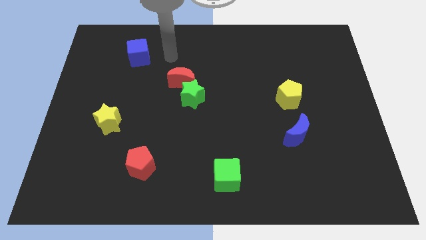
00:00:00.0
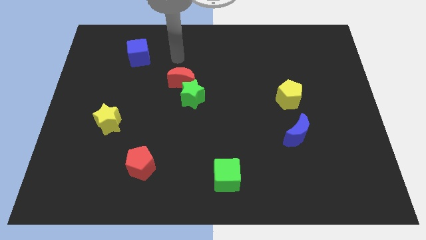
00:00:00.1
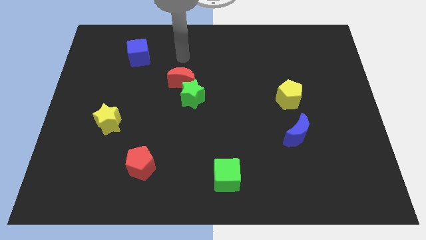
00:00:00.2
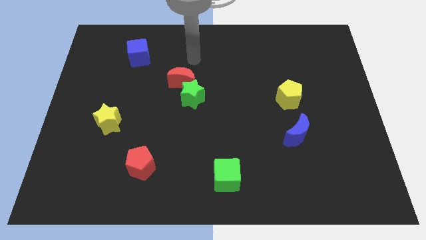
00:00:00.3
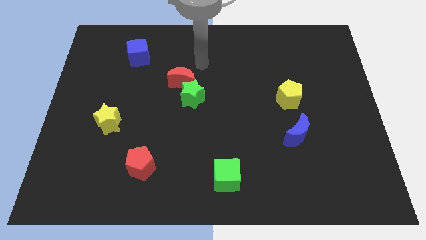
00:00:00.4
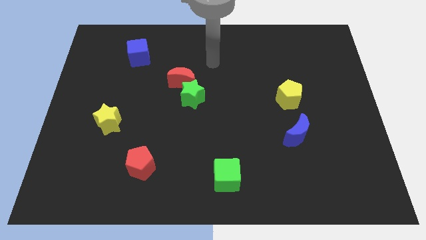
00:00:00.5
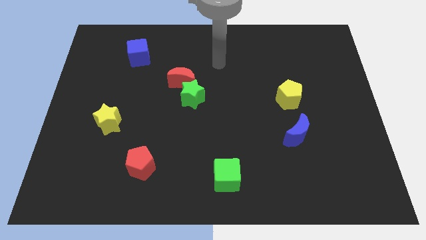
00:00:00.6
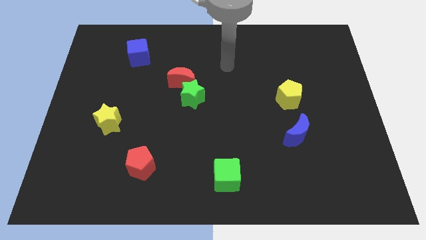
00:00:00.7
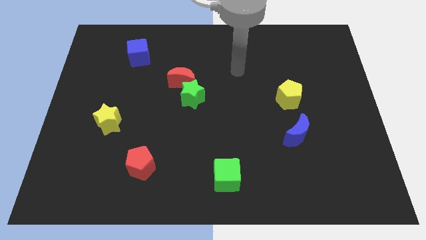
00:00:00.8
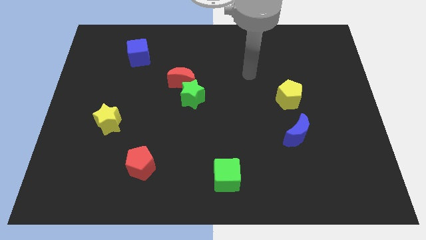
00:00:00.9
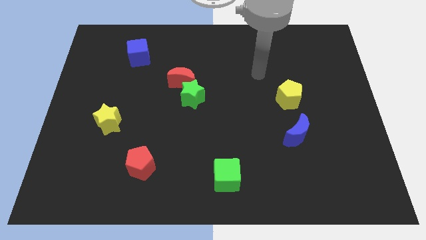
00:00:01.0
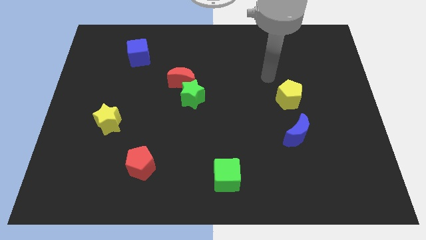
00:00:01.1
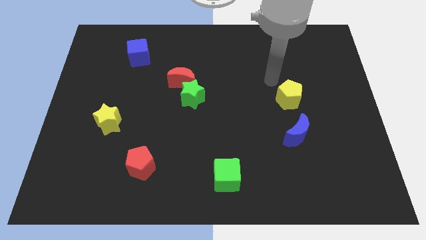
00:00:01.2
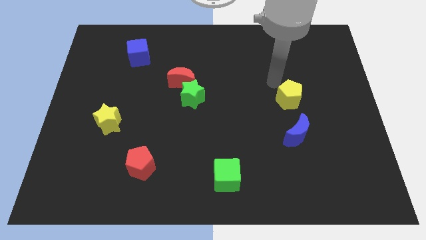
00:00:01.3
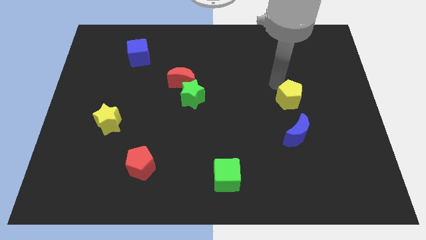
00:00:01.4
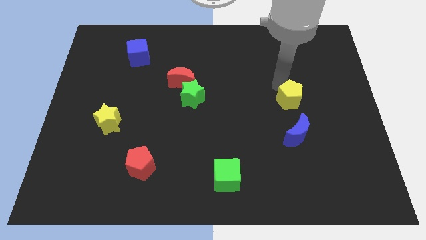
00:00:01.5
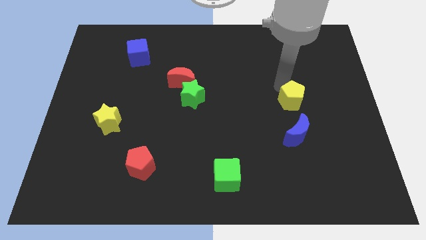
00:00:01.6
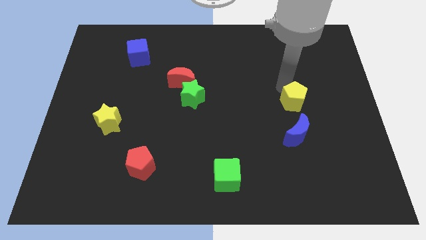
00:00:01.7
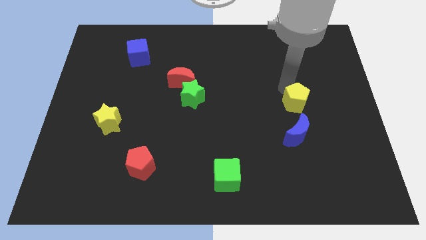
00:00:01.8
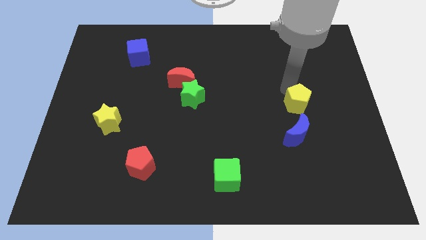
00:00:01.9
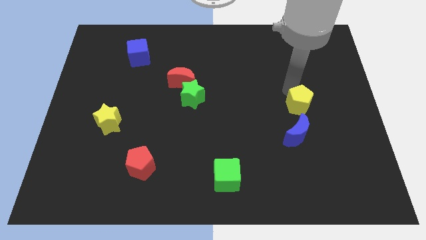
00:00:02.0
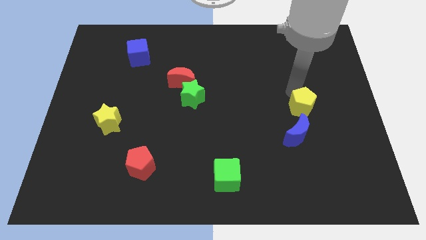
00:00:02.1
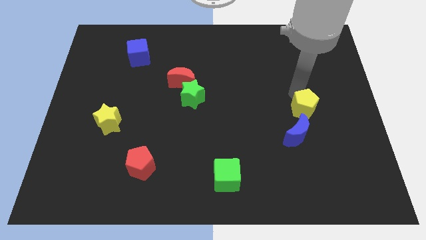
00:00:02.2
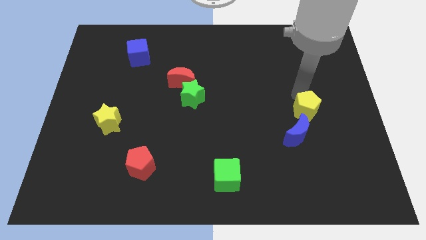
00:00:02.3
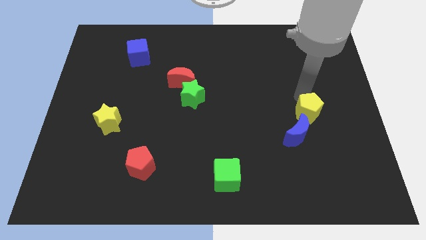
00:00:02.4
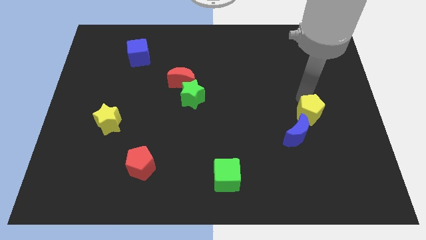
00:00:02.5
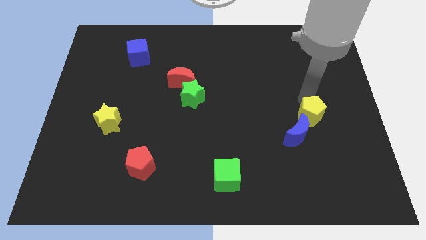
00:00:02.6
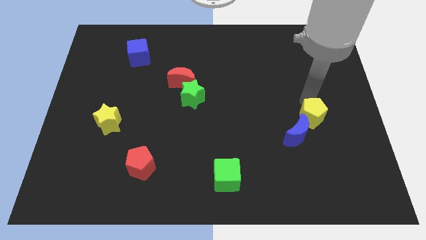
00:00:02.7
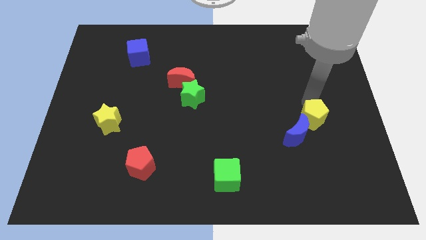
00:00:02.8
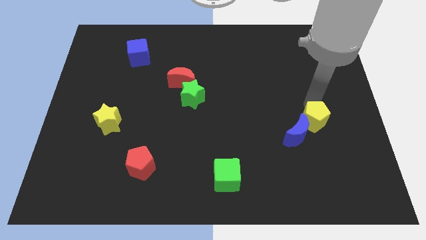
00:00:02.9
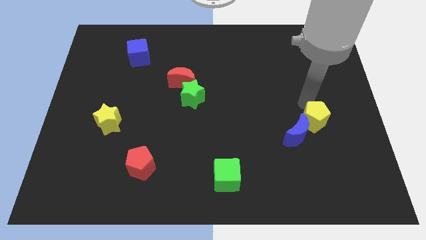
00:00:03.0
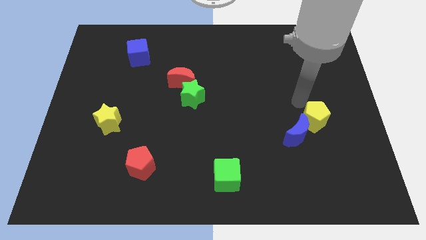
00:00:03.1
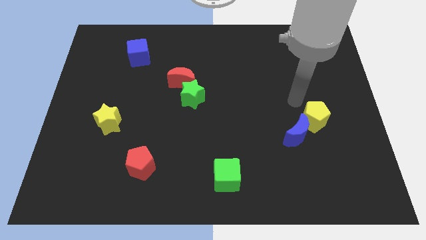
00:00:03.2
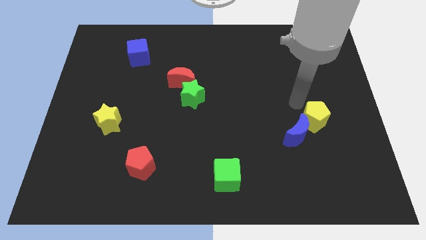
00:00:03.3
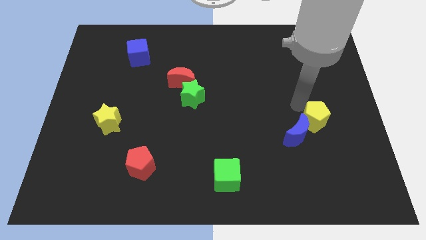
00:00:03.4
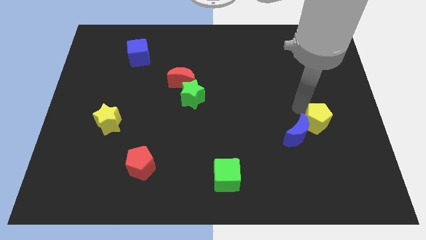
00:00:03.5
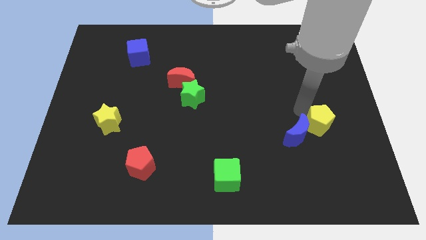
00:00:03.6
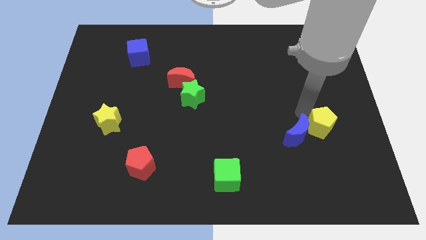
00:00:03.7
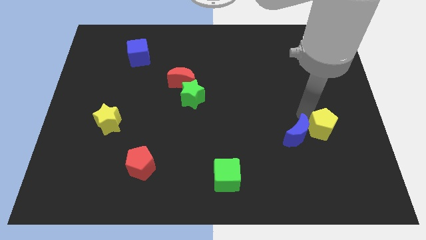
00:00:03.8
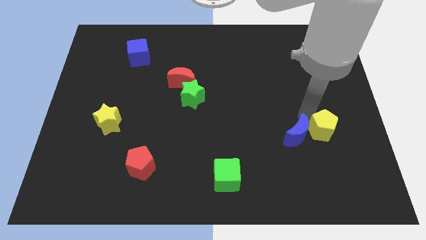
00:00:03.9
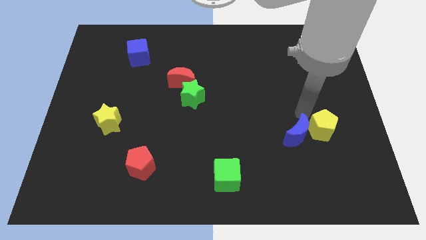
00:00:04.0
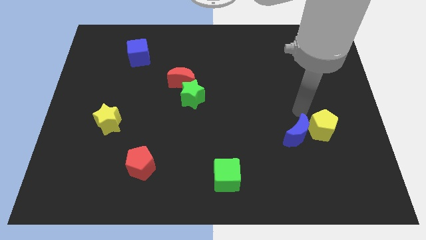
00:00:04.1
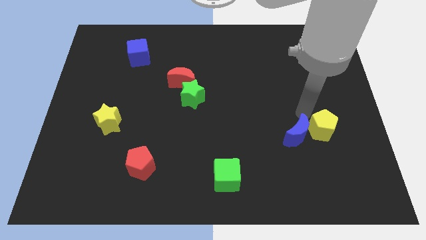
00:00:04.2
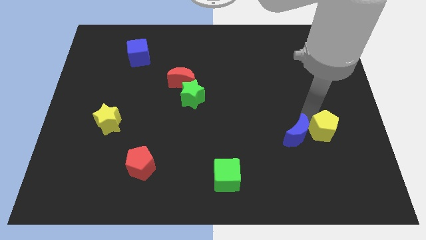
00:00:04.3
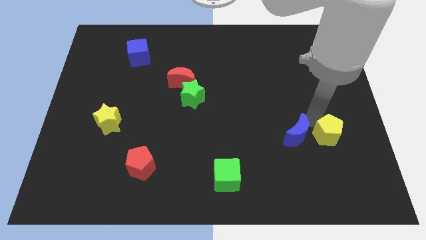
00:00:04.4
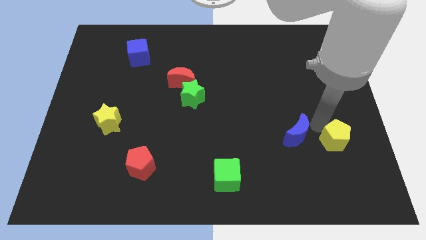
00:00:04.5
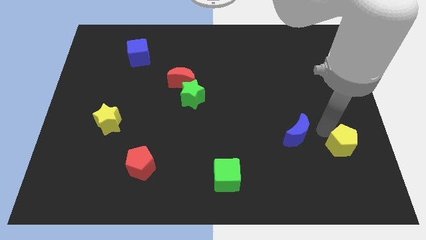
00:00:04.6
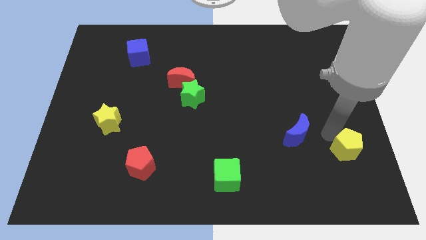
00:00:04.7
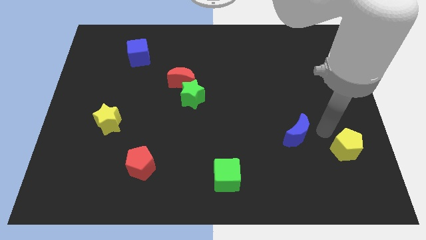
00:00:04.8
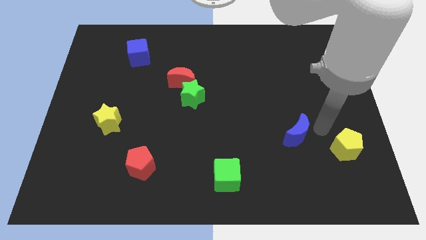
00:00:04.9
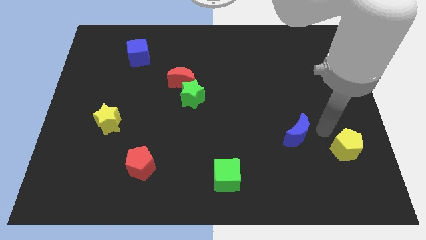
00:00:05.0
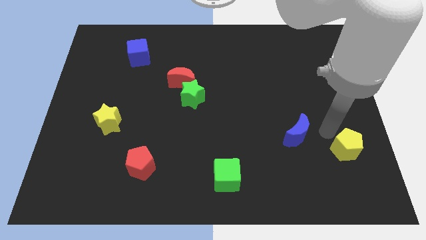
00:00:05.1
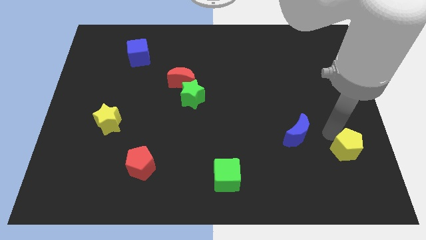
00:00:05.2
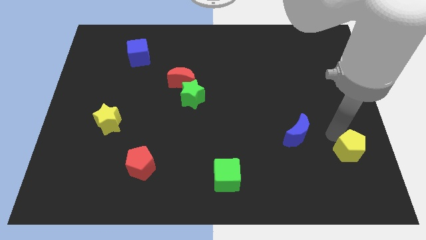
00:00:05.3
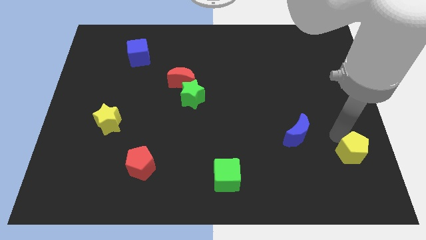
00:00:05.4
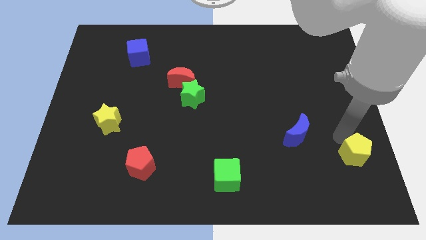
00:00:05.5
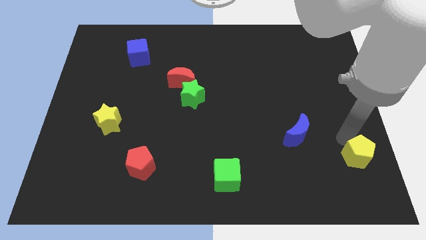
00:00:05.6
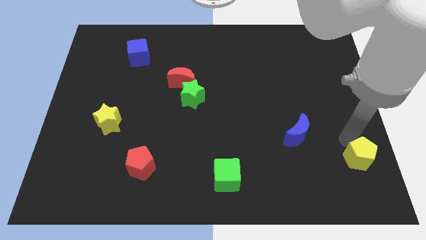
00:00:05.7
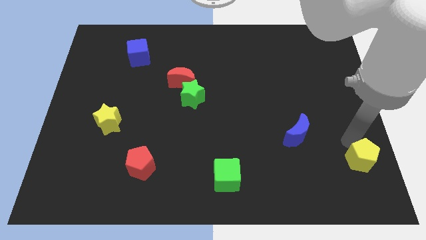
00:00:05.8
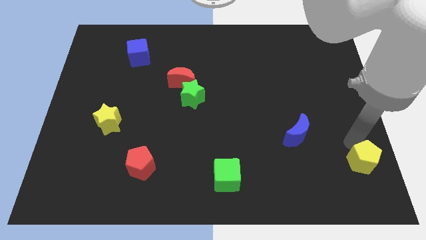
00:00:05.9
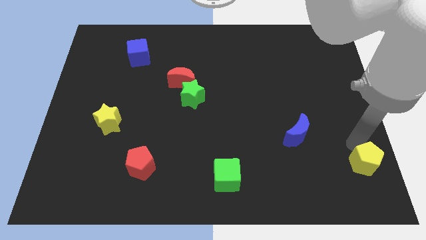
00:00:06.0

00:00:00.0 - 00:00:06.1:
put the yellow pentagon to the bottom right of the board

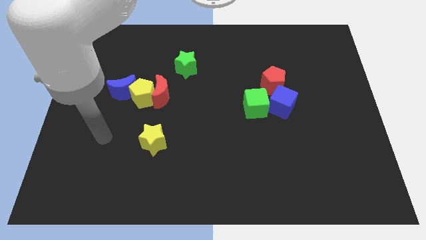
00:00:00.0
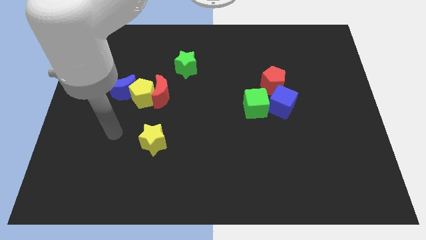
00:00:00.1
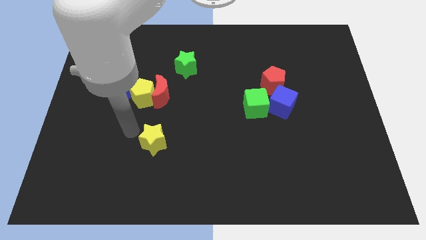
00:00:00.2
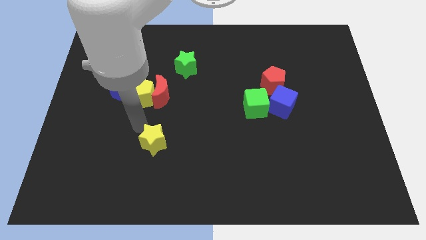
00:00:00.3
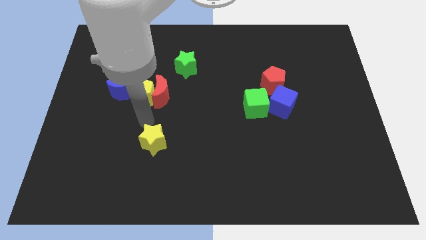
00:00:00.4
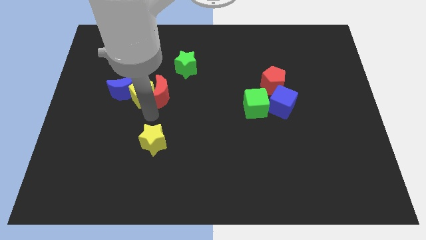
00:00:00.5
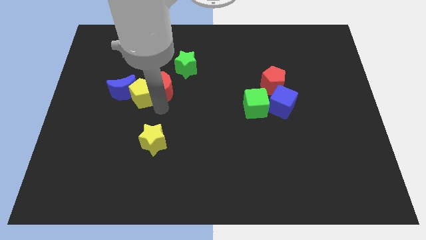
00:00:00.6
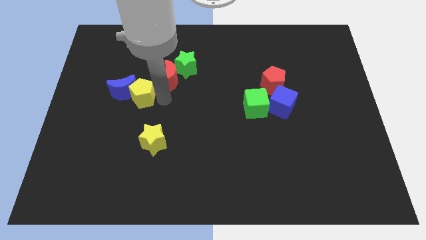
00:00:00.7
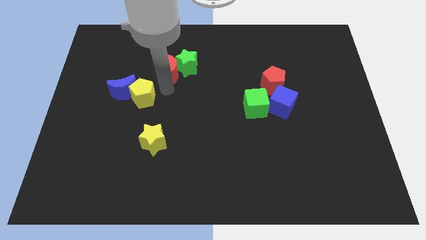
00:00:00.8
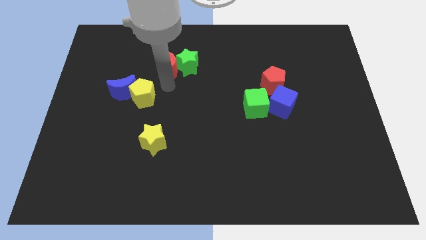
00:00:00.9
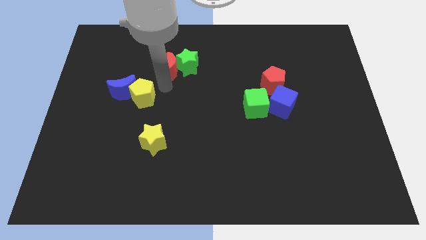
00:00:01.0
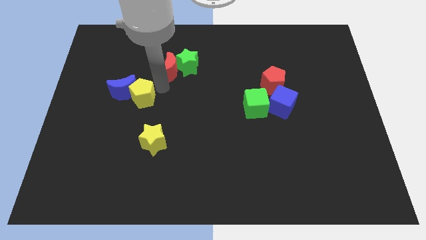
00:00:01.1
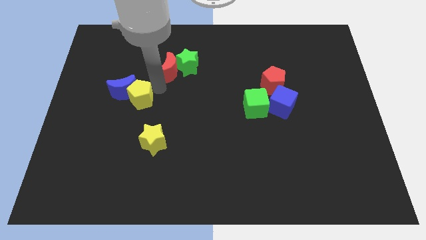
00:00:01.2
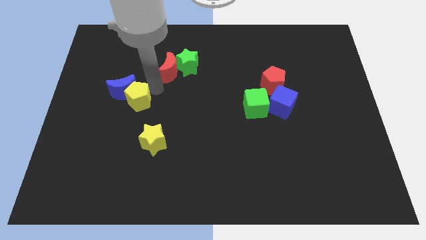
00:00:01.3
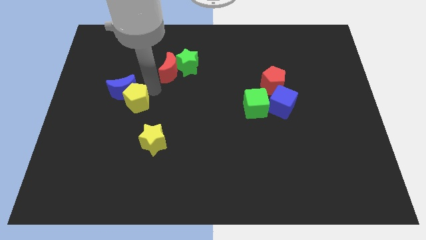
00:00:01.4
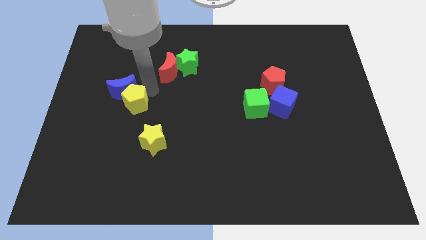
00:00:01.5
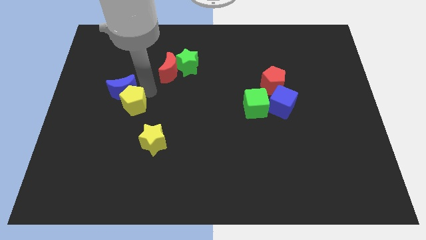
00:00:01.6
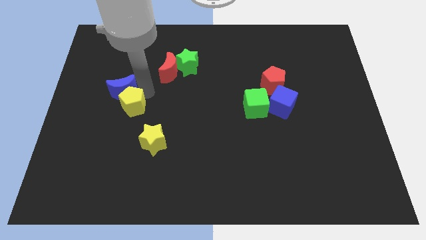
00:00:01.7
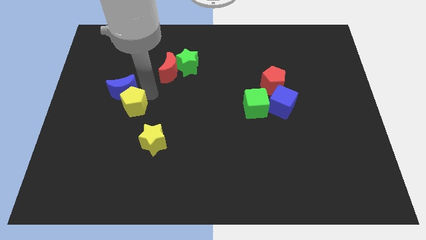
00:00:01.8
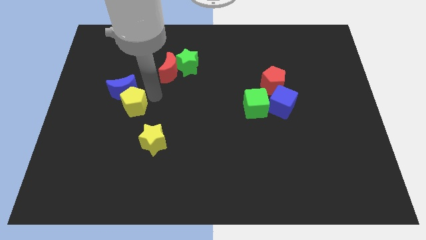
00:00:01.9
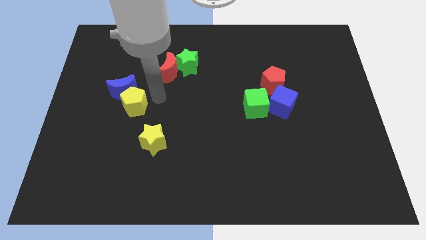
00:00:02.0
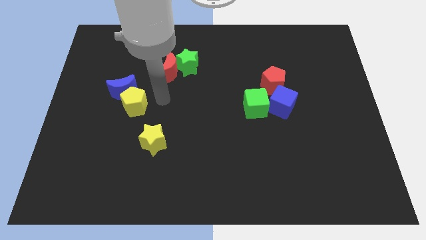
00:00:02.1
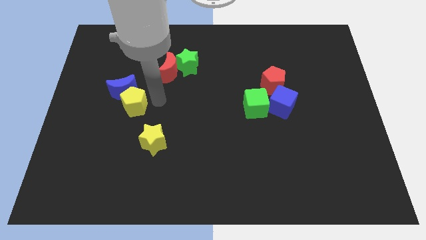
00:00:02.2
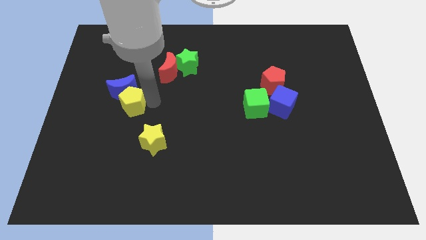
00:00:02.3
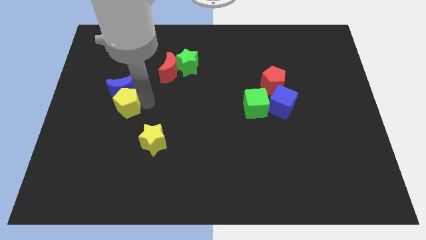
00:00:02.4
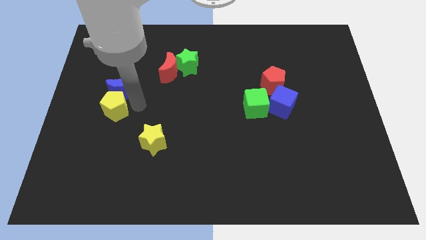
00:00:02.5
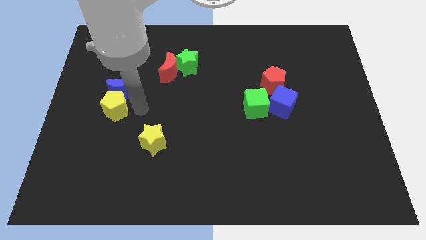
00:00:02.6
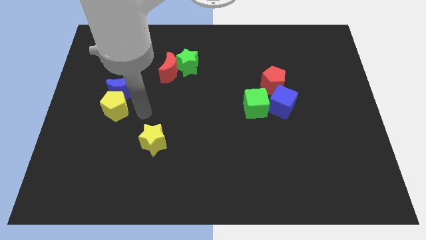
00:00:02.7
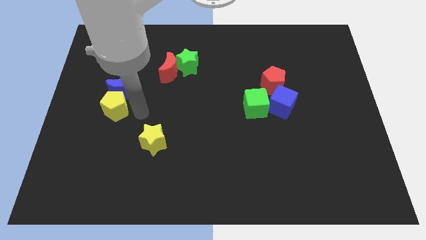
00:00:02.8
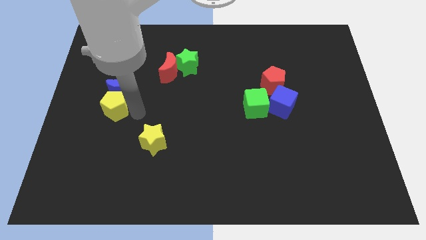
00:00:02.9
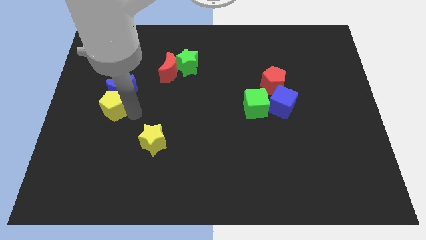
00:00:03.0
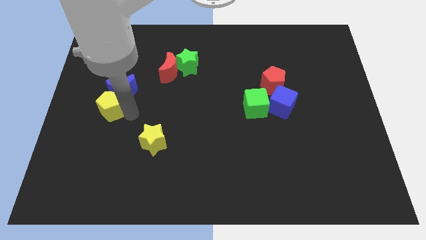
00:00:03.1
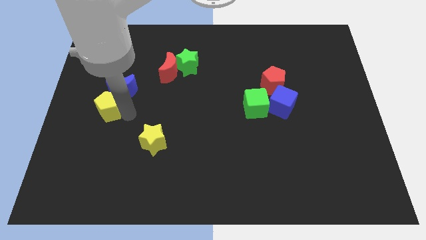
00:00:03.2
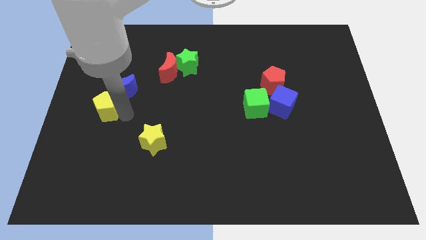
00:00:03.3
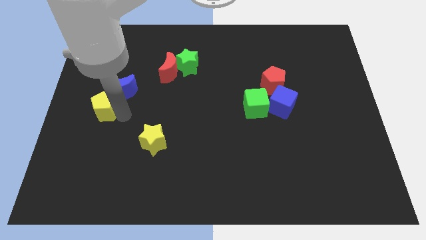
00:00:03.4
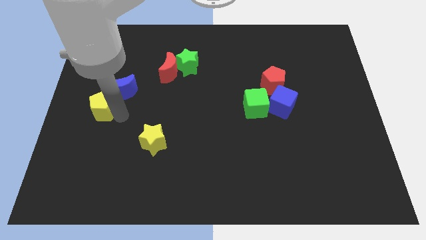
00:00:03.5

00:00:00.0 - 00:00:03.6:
put the yellow pentagon to the left side of the board
